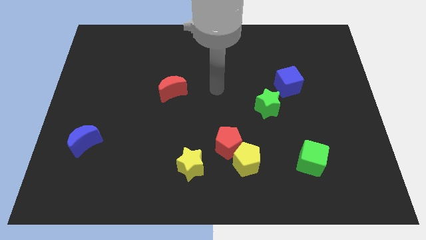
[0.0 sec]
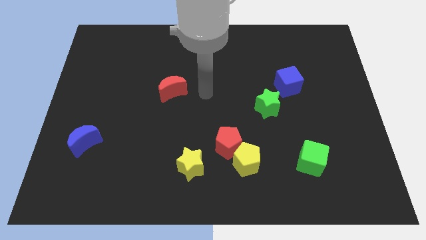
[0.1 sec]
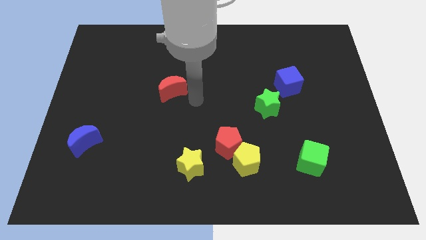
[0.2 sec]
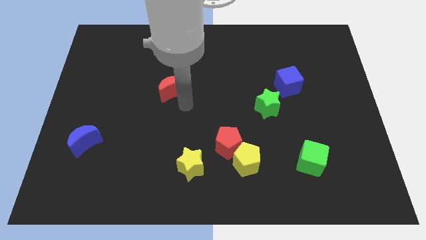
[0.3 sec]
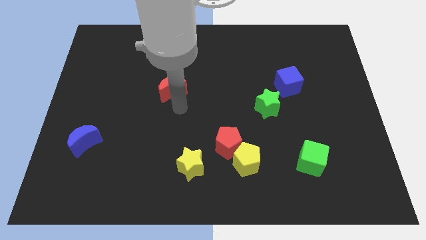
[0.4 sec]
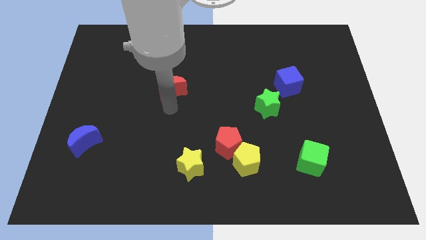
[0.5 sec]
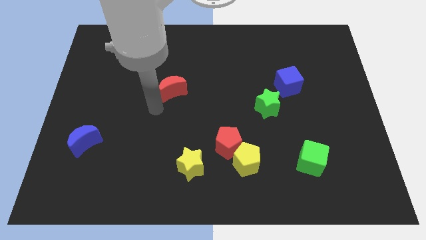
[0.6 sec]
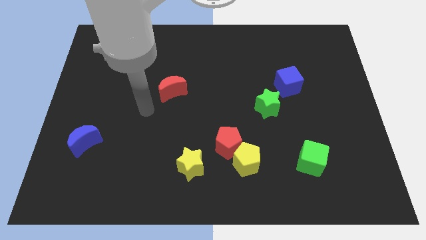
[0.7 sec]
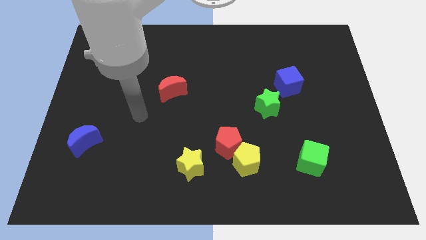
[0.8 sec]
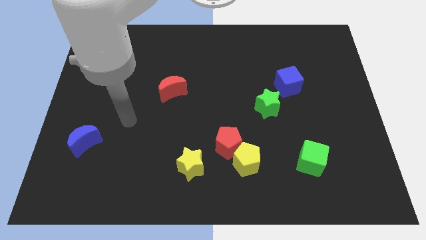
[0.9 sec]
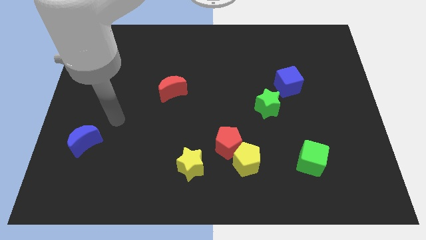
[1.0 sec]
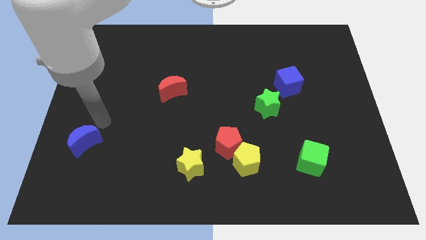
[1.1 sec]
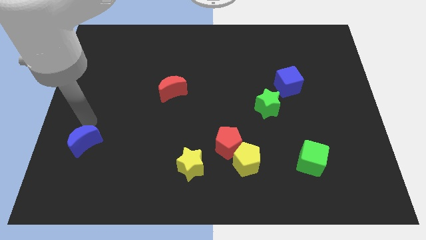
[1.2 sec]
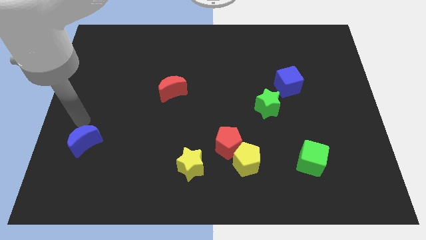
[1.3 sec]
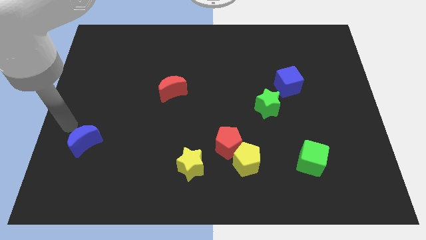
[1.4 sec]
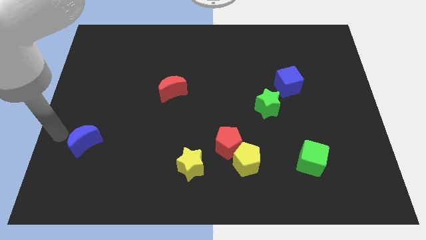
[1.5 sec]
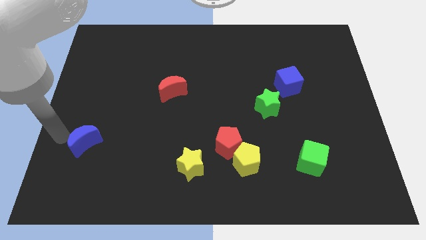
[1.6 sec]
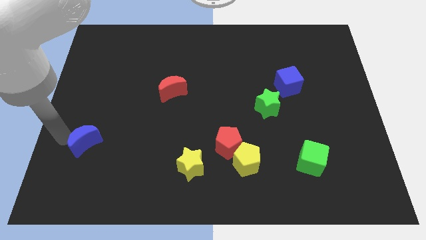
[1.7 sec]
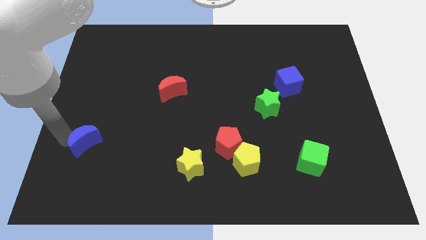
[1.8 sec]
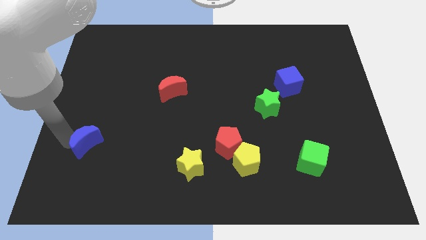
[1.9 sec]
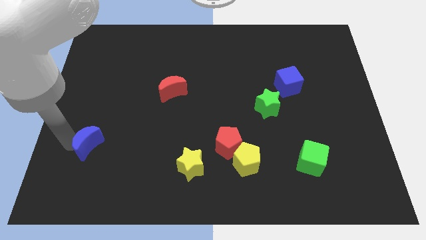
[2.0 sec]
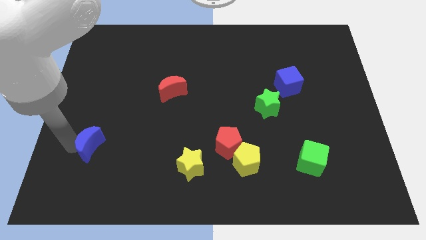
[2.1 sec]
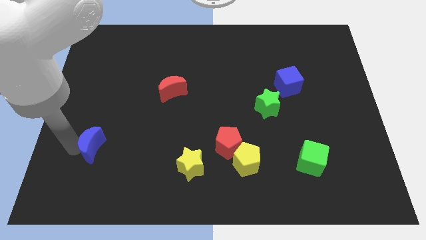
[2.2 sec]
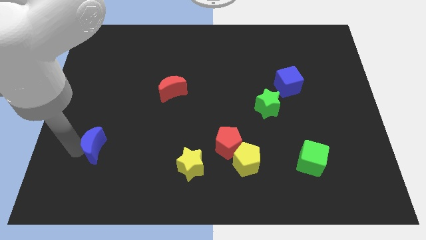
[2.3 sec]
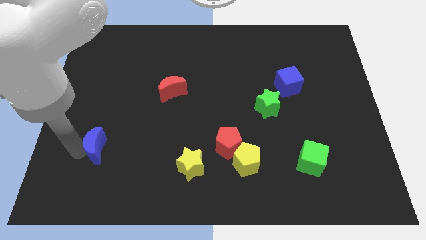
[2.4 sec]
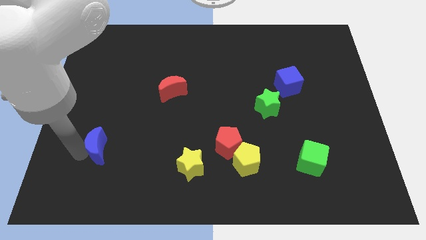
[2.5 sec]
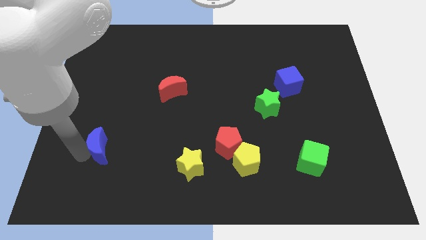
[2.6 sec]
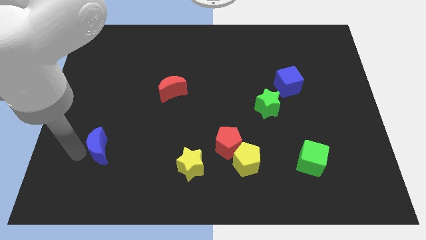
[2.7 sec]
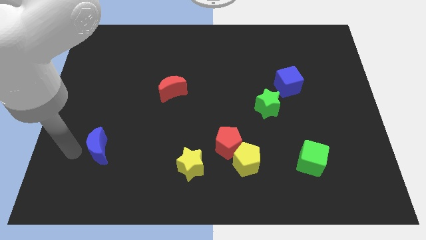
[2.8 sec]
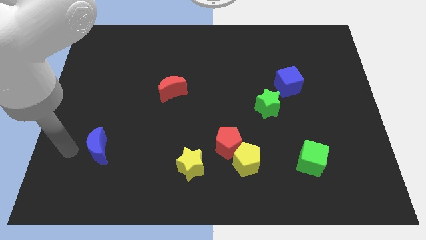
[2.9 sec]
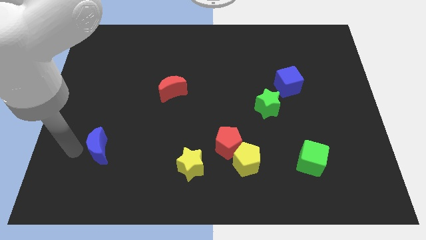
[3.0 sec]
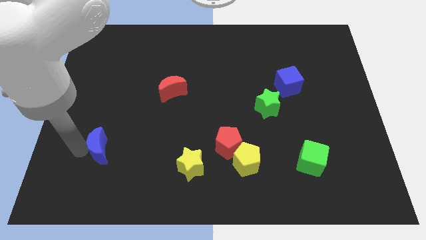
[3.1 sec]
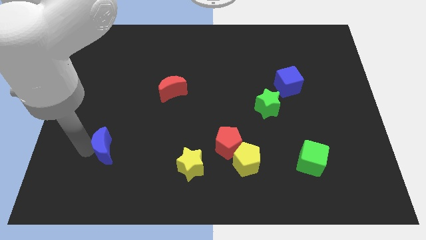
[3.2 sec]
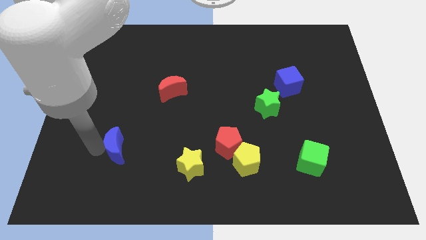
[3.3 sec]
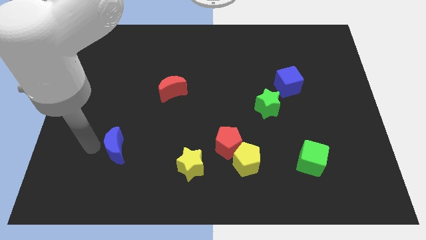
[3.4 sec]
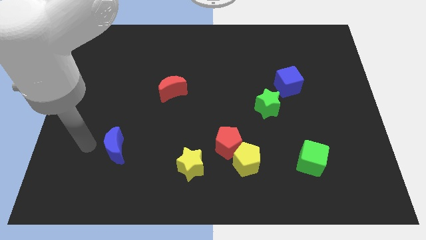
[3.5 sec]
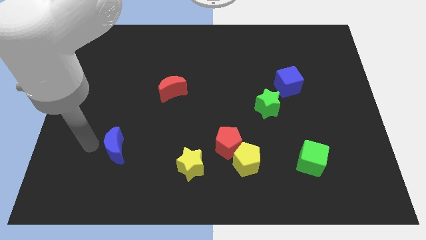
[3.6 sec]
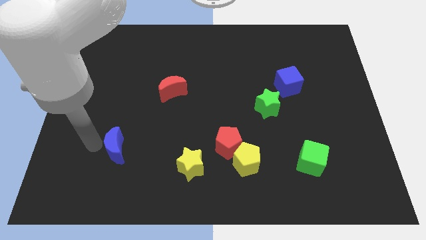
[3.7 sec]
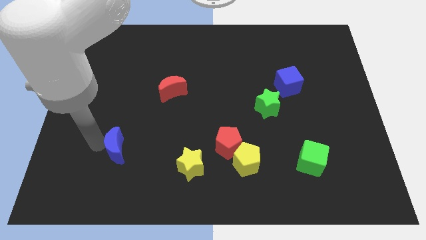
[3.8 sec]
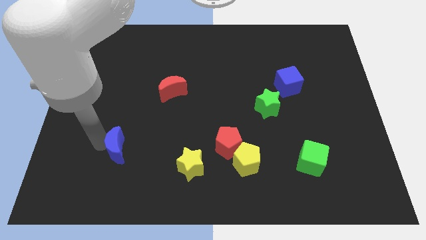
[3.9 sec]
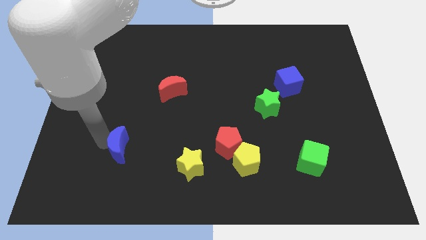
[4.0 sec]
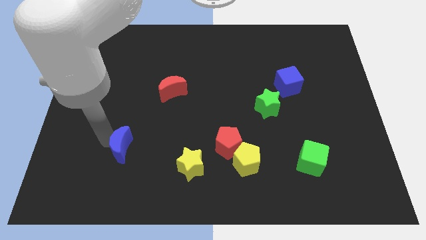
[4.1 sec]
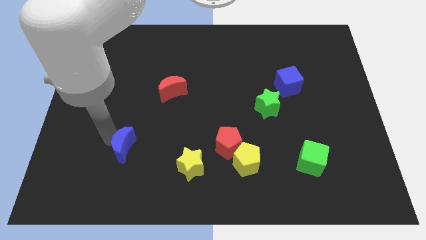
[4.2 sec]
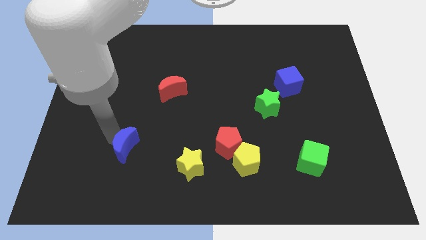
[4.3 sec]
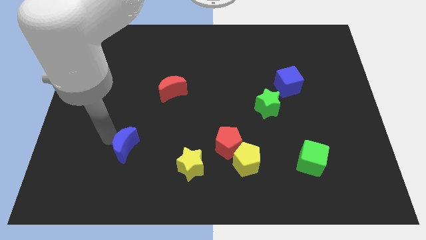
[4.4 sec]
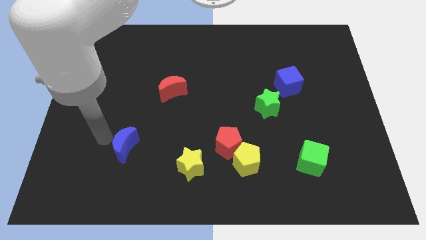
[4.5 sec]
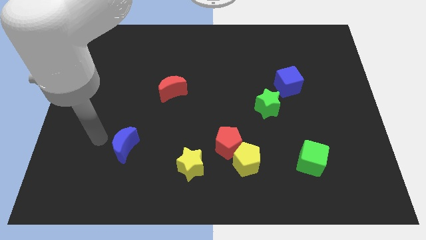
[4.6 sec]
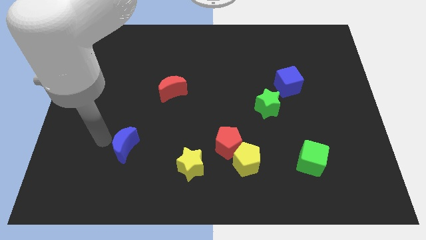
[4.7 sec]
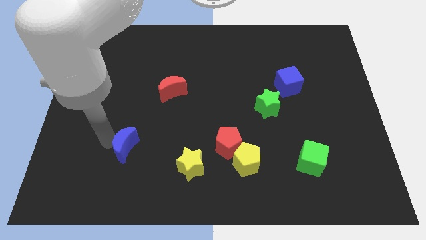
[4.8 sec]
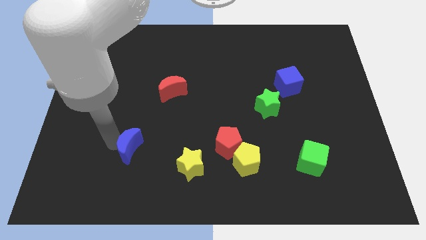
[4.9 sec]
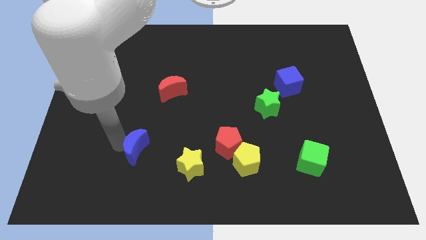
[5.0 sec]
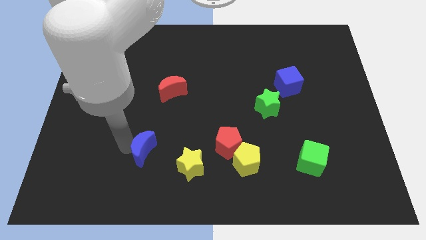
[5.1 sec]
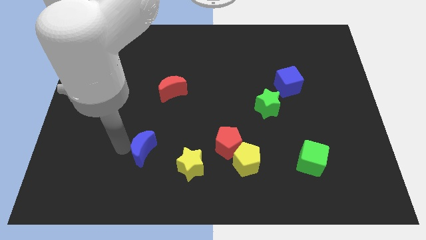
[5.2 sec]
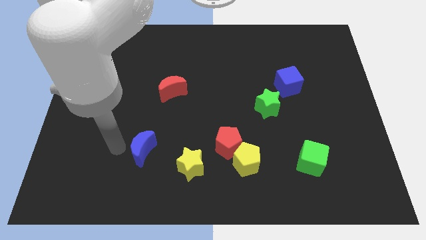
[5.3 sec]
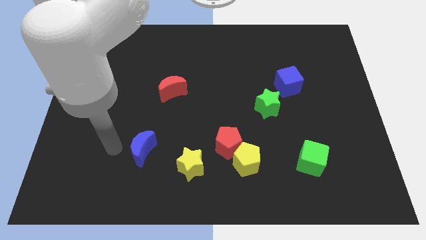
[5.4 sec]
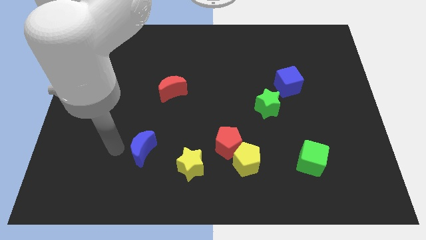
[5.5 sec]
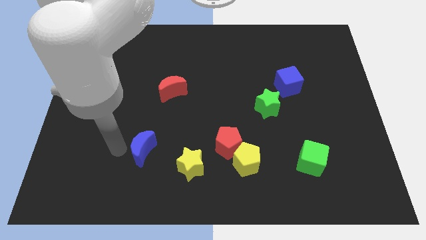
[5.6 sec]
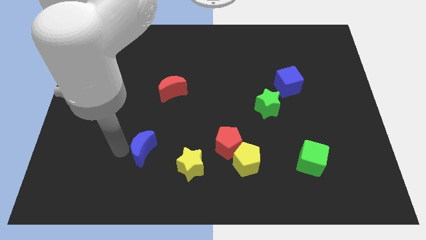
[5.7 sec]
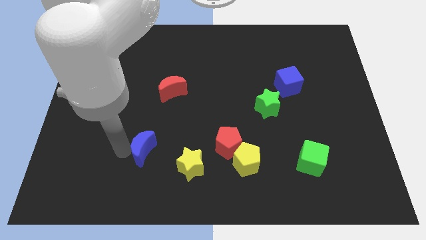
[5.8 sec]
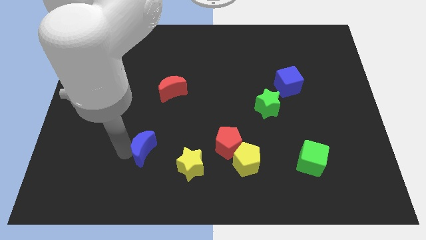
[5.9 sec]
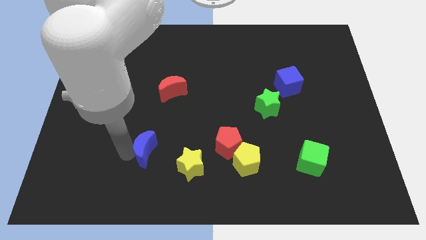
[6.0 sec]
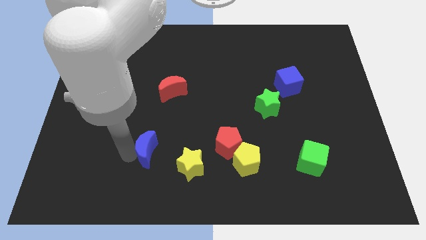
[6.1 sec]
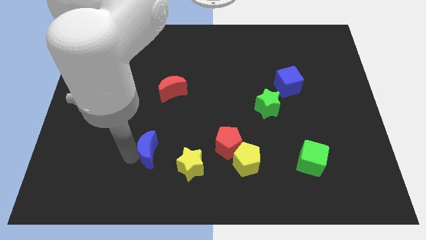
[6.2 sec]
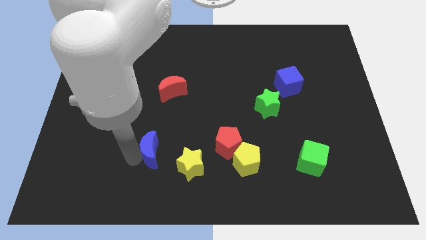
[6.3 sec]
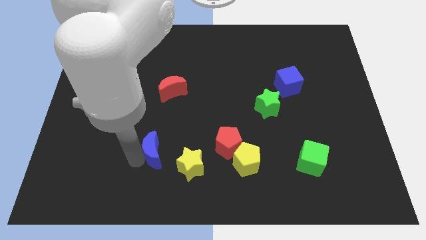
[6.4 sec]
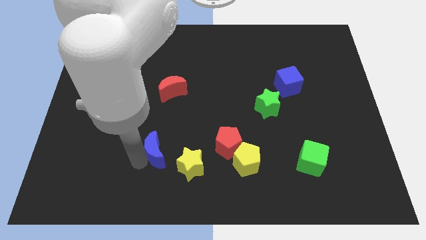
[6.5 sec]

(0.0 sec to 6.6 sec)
slide the blue moon just left of the red pentagon
